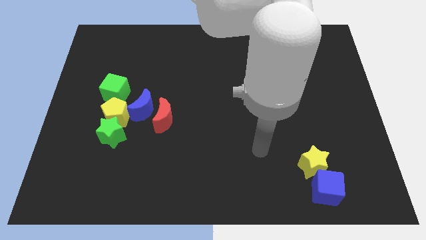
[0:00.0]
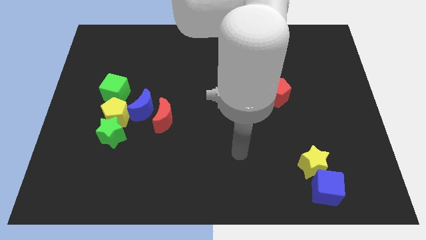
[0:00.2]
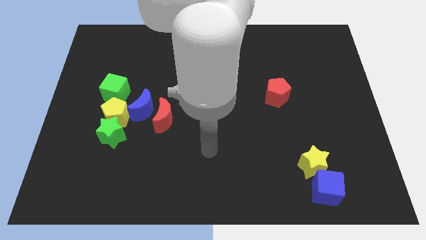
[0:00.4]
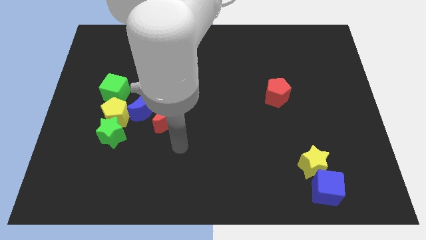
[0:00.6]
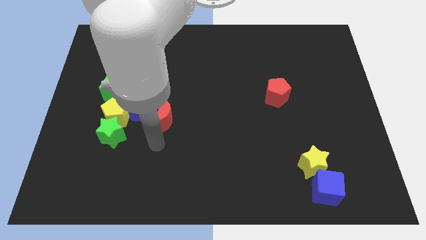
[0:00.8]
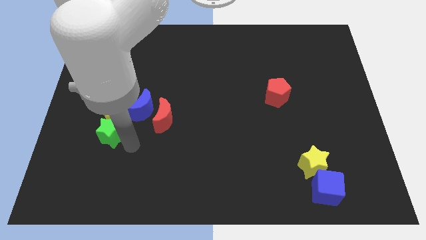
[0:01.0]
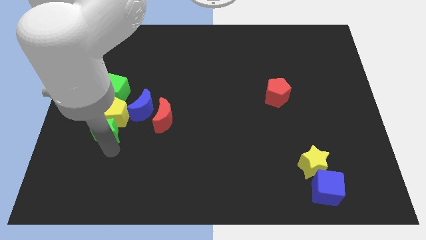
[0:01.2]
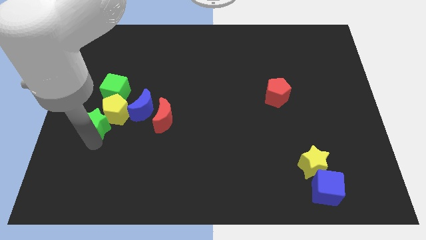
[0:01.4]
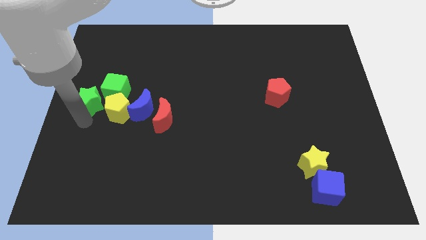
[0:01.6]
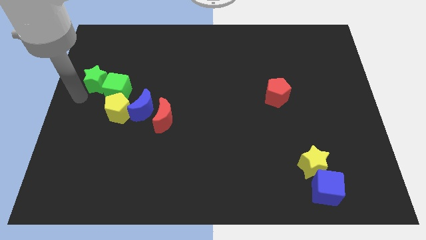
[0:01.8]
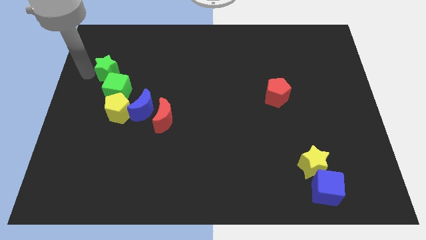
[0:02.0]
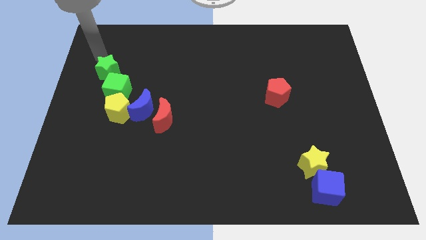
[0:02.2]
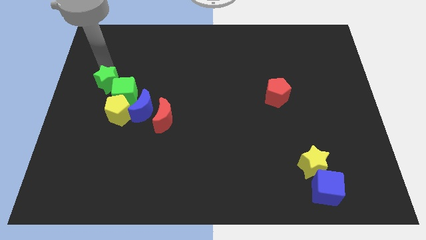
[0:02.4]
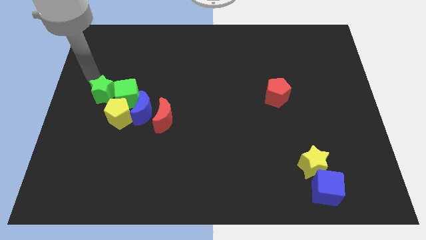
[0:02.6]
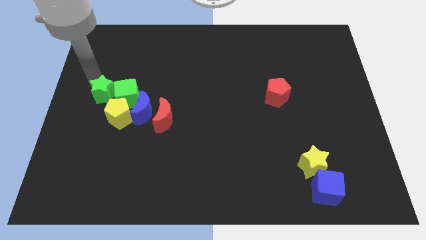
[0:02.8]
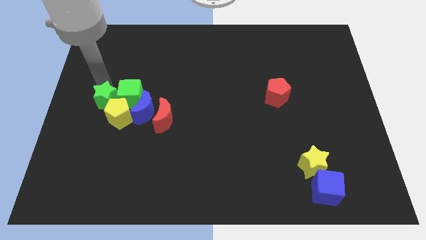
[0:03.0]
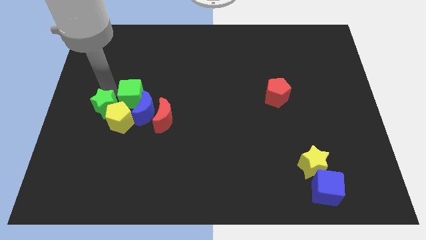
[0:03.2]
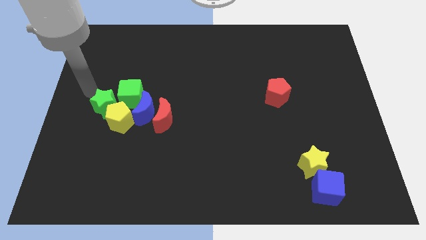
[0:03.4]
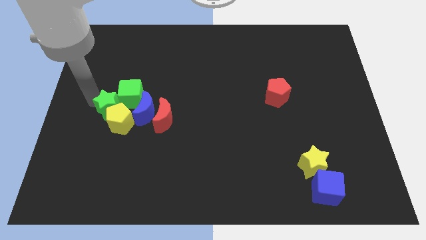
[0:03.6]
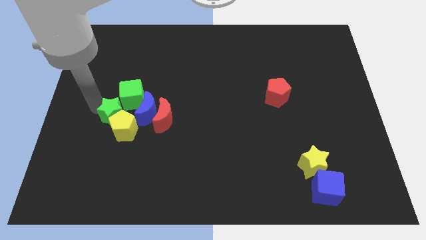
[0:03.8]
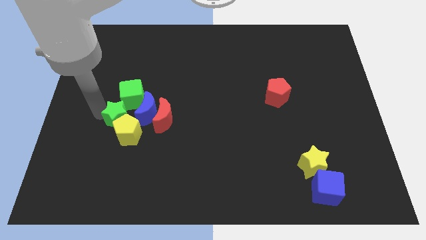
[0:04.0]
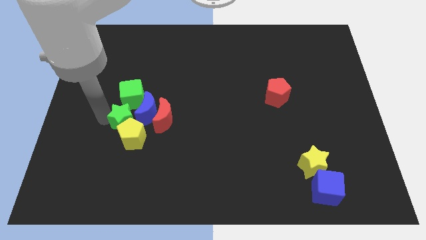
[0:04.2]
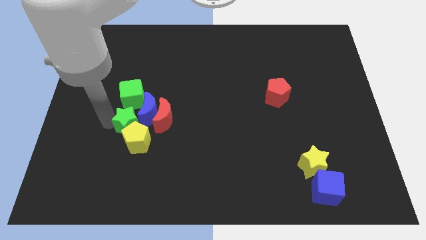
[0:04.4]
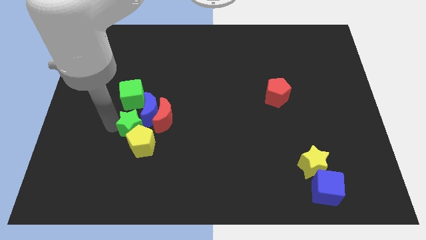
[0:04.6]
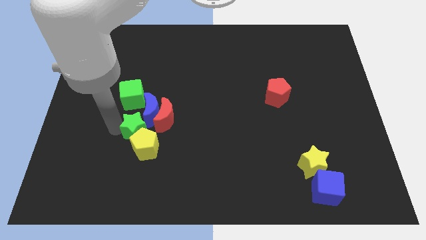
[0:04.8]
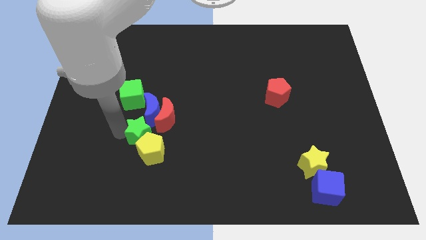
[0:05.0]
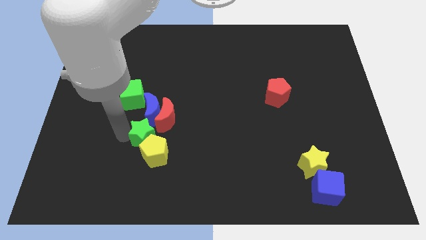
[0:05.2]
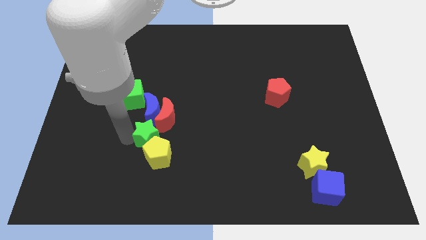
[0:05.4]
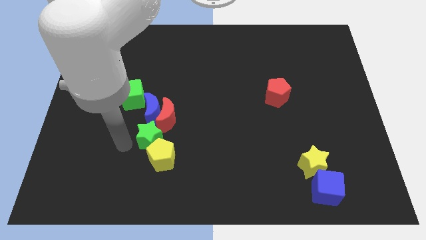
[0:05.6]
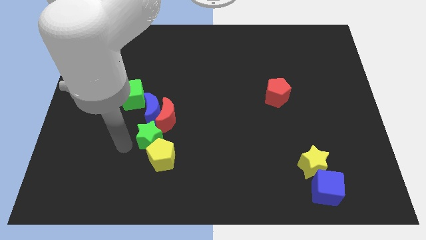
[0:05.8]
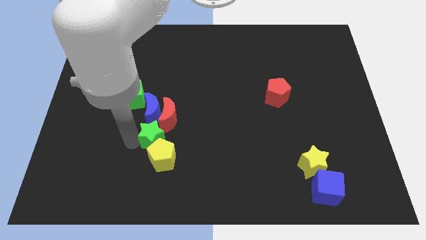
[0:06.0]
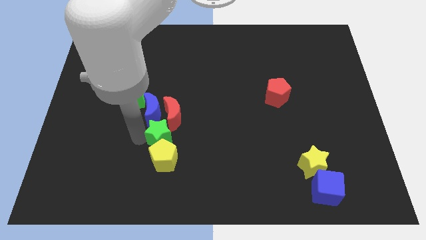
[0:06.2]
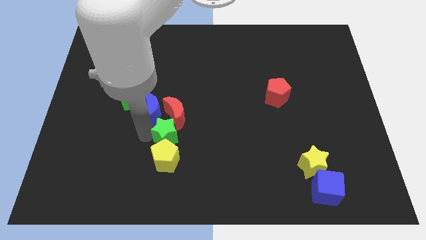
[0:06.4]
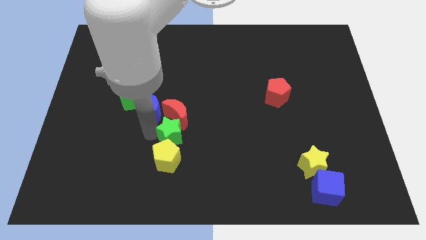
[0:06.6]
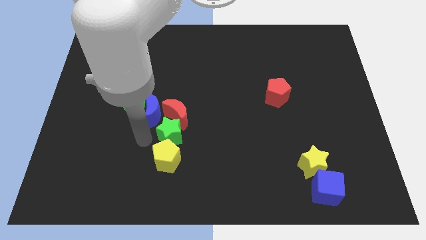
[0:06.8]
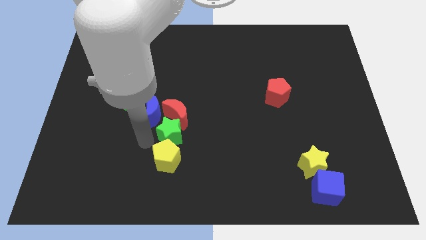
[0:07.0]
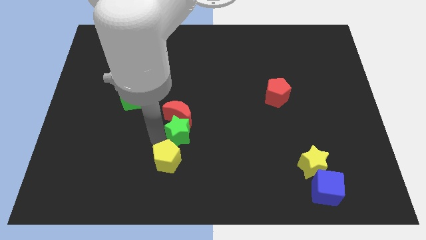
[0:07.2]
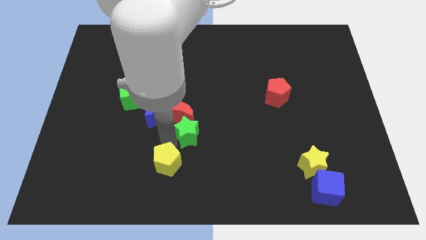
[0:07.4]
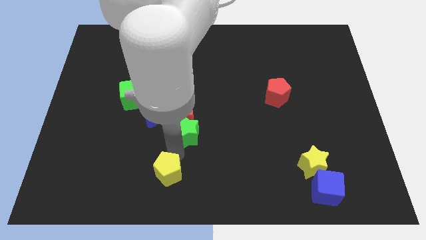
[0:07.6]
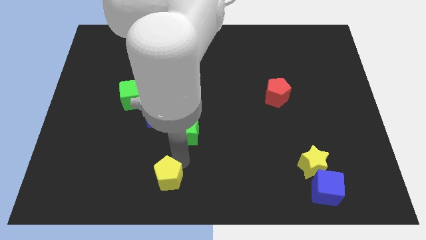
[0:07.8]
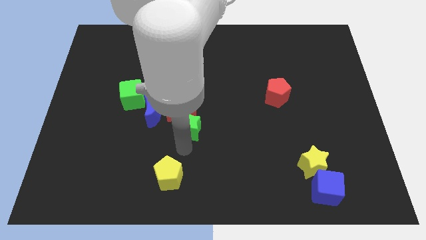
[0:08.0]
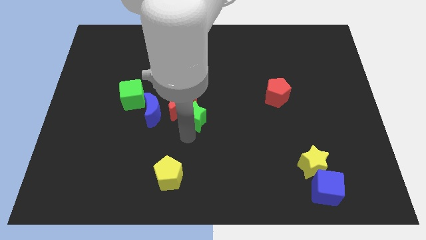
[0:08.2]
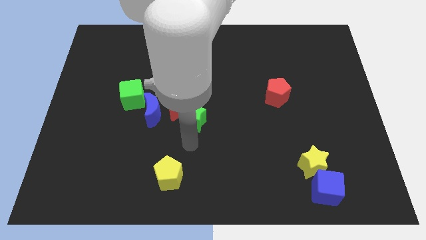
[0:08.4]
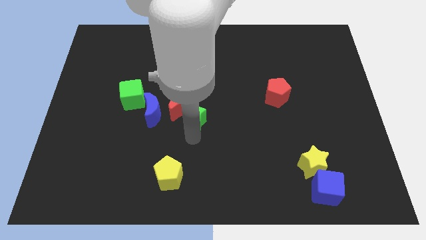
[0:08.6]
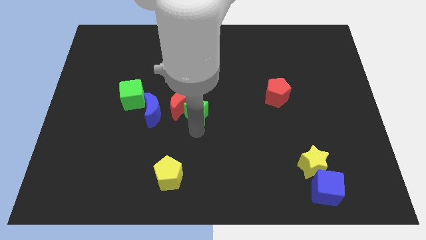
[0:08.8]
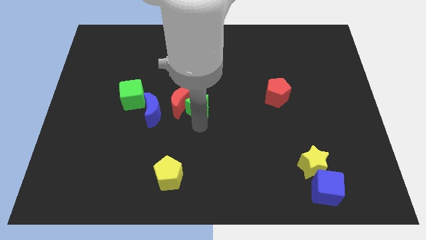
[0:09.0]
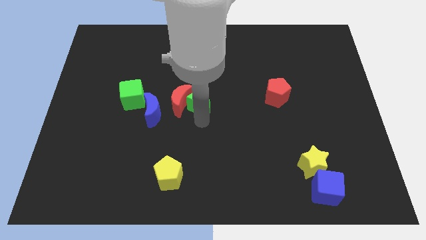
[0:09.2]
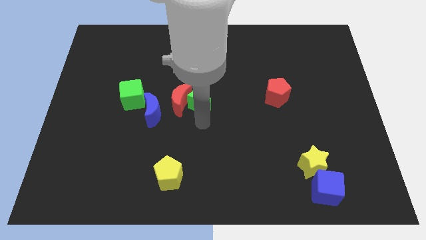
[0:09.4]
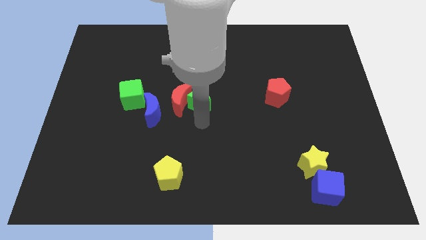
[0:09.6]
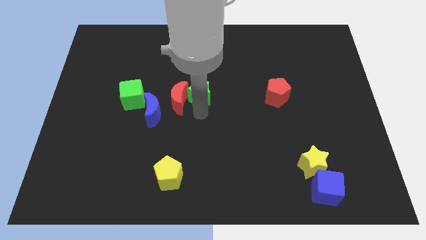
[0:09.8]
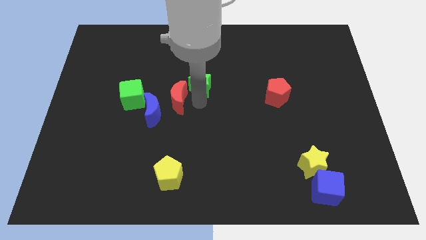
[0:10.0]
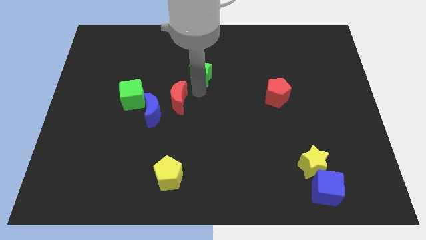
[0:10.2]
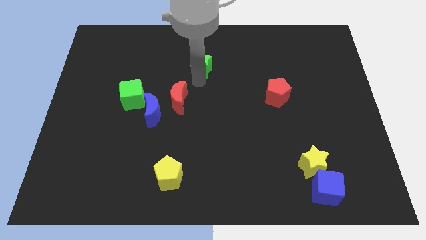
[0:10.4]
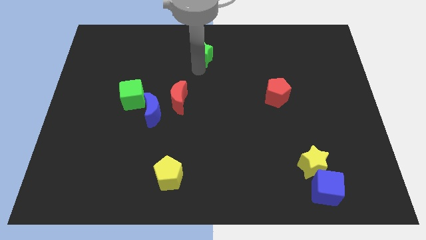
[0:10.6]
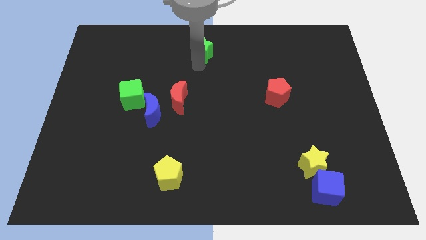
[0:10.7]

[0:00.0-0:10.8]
slide the green star to the top side

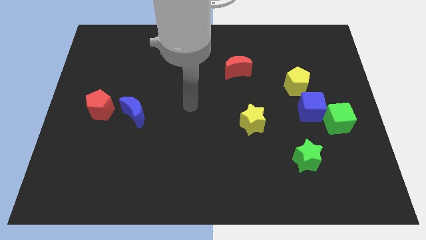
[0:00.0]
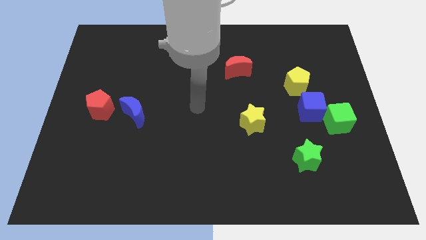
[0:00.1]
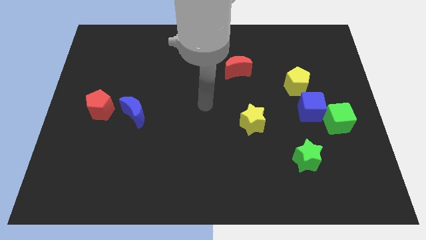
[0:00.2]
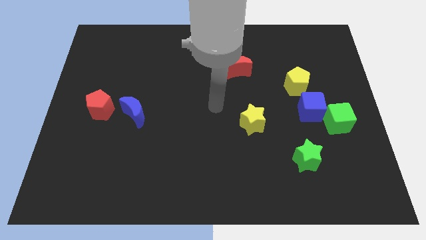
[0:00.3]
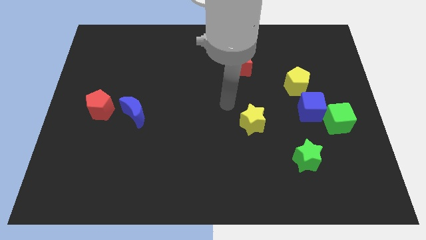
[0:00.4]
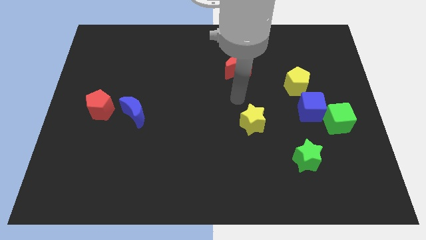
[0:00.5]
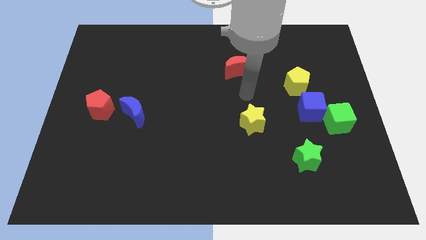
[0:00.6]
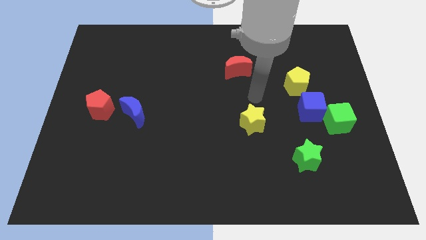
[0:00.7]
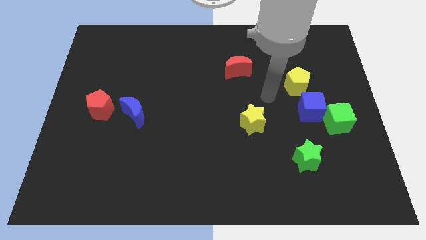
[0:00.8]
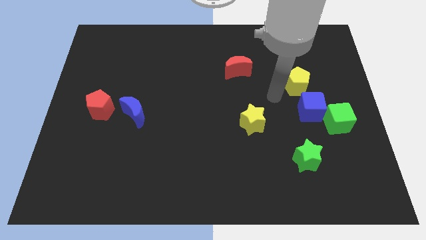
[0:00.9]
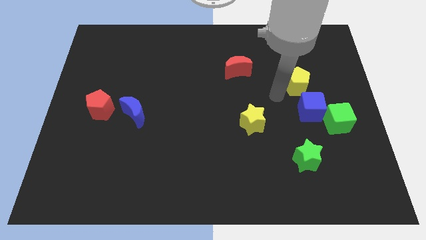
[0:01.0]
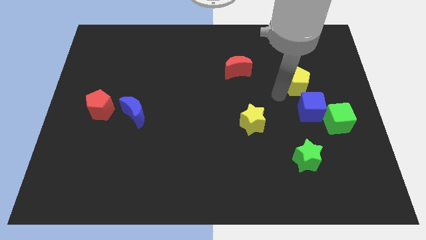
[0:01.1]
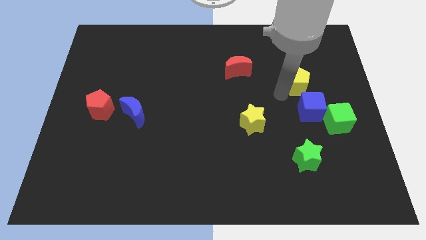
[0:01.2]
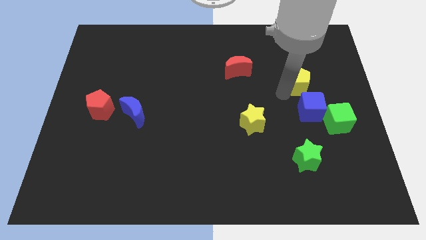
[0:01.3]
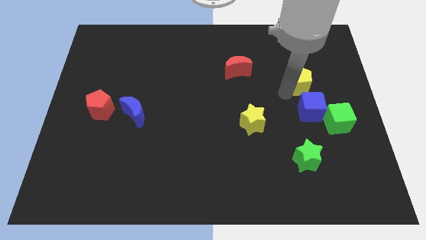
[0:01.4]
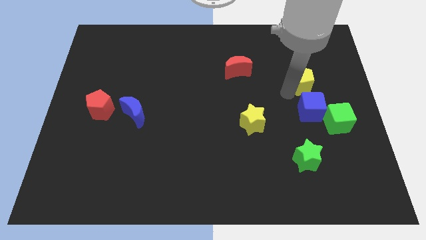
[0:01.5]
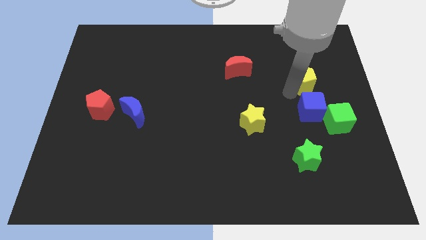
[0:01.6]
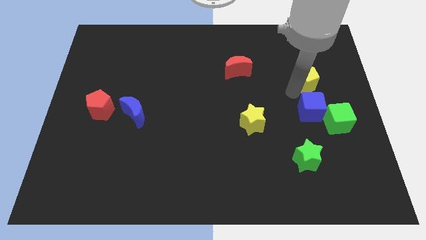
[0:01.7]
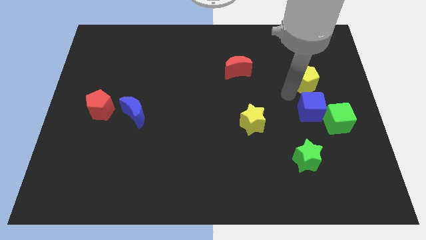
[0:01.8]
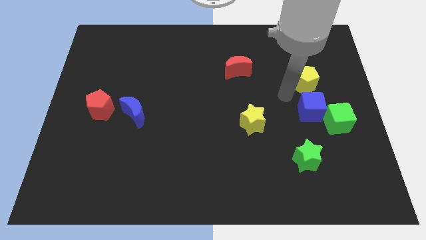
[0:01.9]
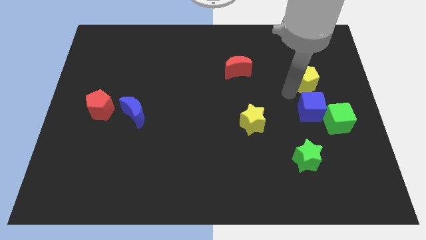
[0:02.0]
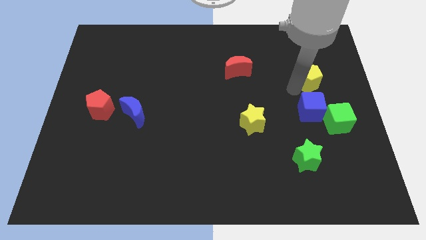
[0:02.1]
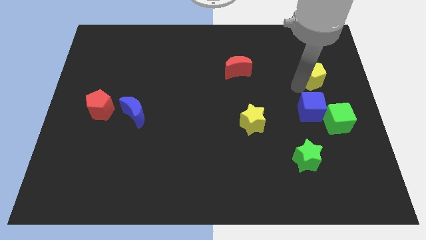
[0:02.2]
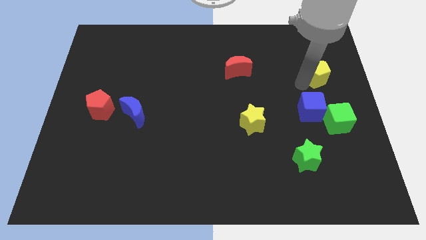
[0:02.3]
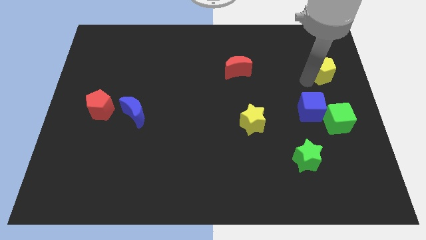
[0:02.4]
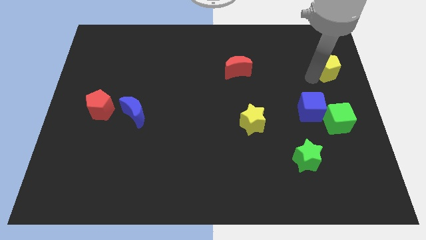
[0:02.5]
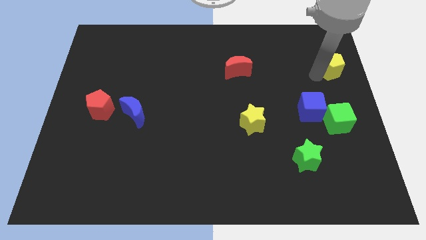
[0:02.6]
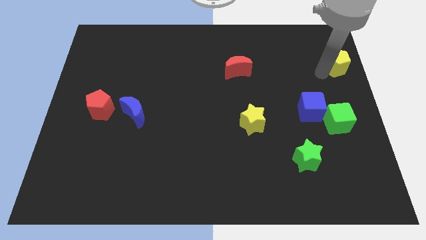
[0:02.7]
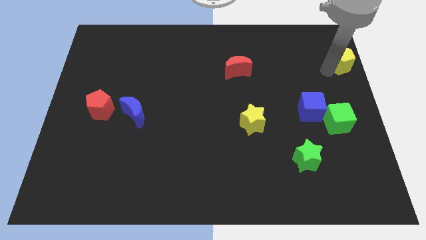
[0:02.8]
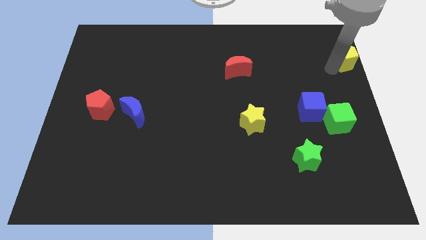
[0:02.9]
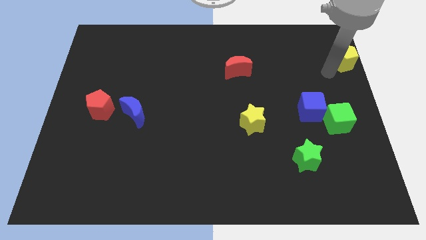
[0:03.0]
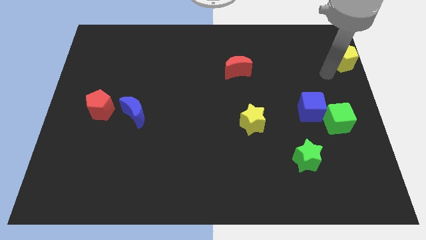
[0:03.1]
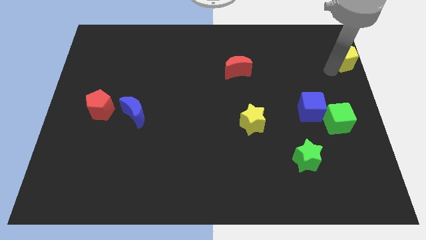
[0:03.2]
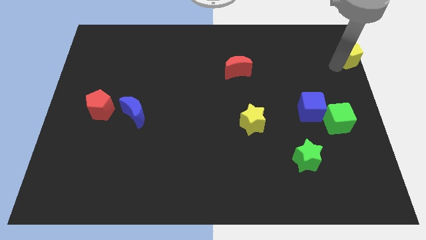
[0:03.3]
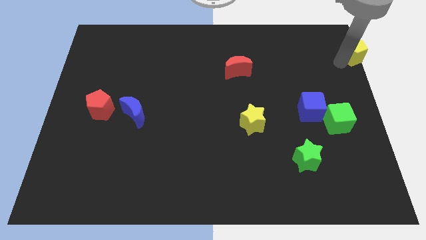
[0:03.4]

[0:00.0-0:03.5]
push the yellow pentagon to the top right of the board
